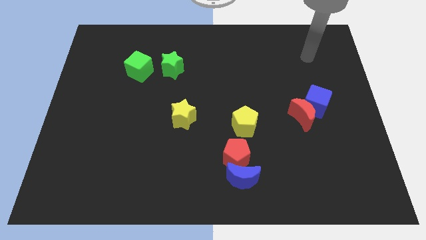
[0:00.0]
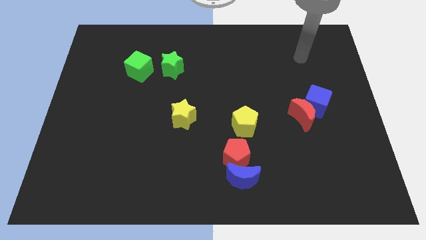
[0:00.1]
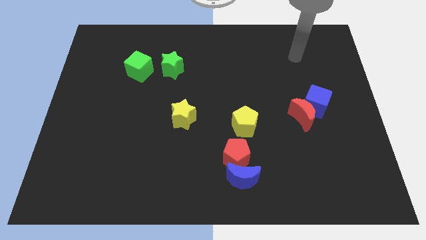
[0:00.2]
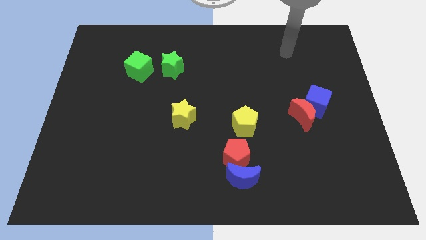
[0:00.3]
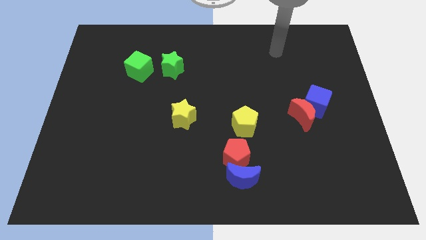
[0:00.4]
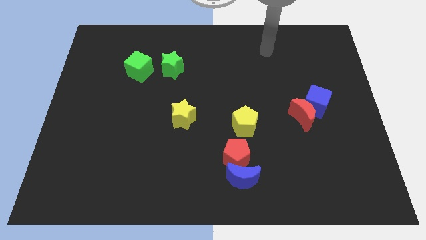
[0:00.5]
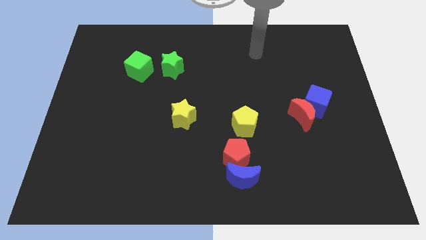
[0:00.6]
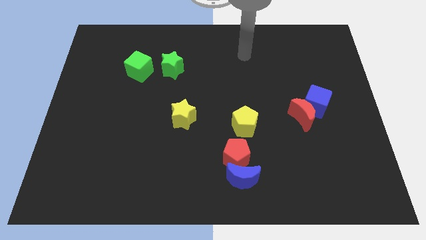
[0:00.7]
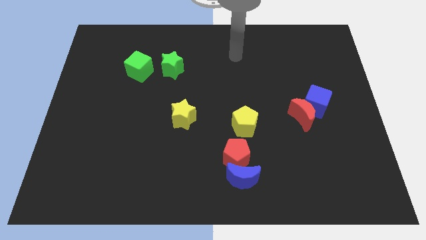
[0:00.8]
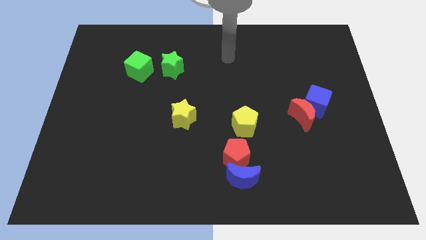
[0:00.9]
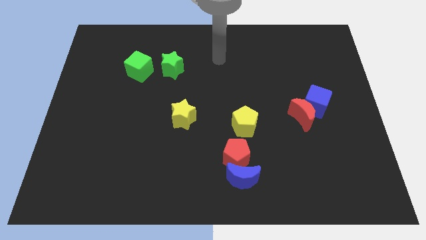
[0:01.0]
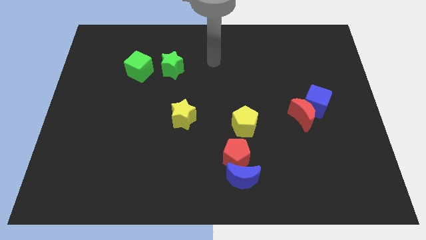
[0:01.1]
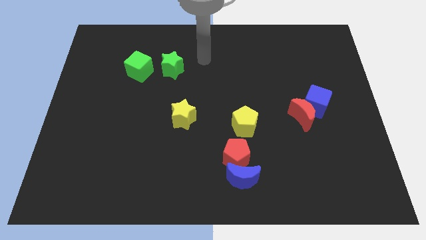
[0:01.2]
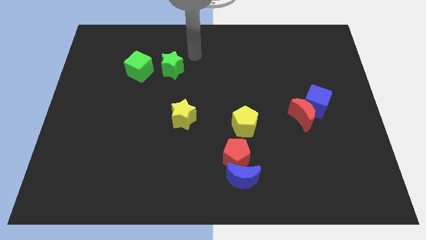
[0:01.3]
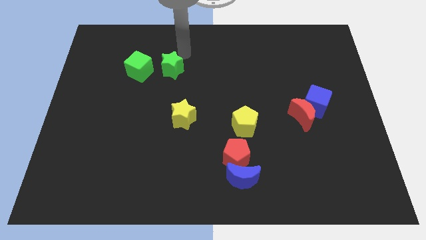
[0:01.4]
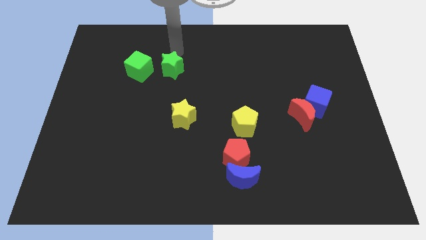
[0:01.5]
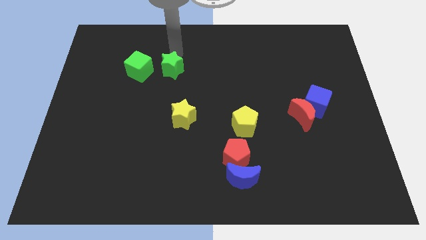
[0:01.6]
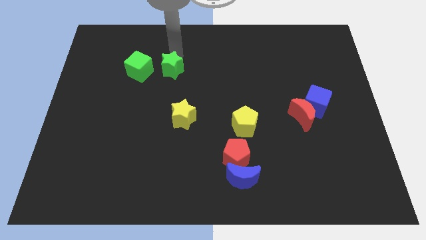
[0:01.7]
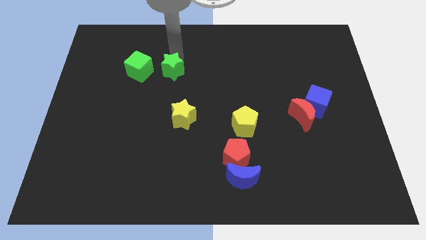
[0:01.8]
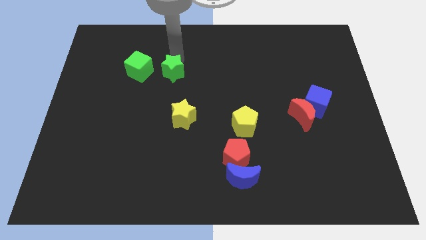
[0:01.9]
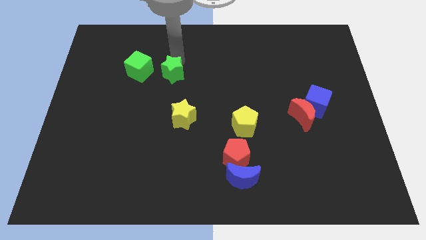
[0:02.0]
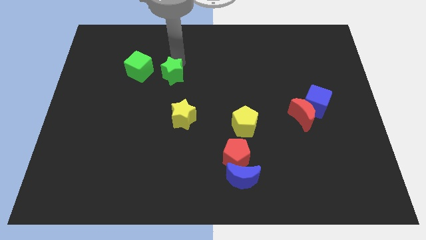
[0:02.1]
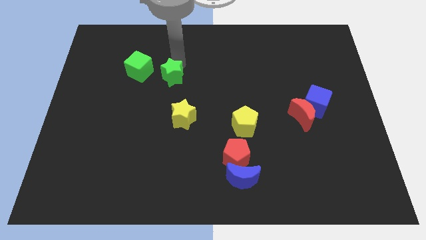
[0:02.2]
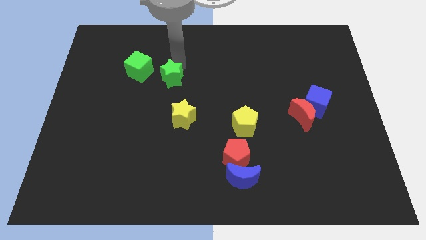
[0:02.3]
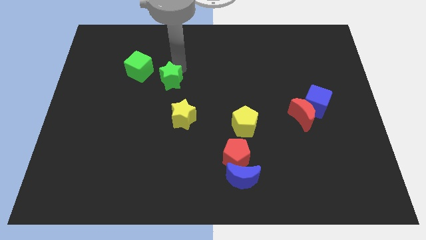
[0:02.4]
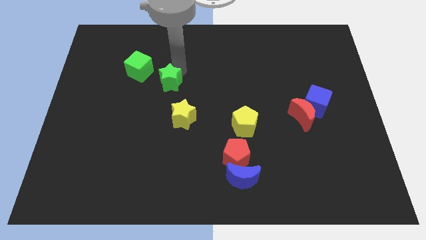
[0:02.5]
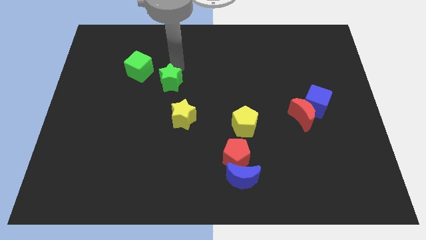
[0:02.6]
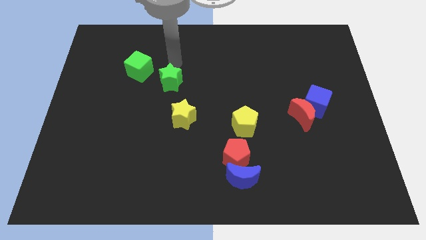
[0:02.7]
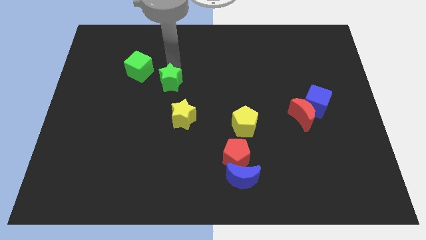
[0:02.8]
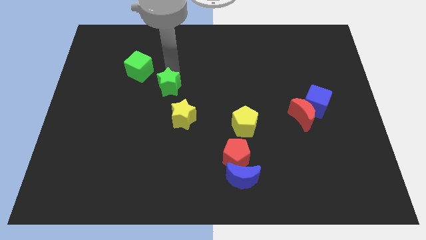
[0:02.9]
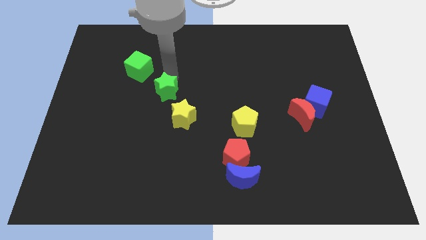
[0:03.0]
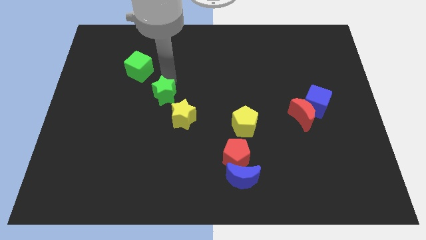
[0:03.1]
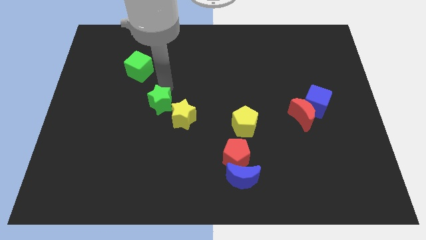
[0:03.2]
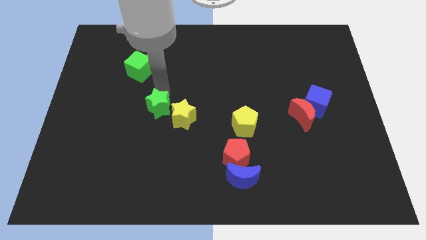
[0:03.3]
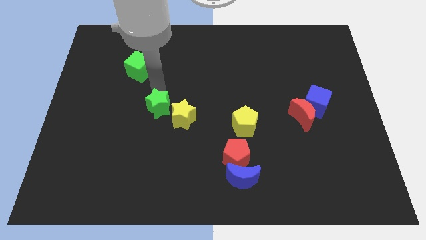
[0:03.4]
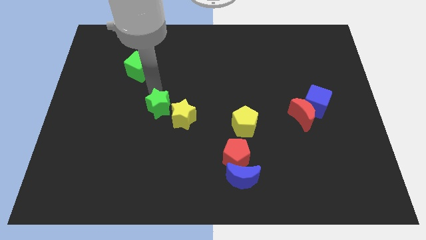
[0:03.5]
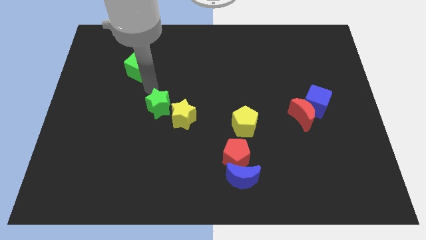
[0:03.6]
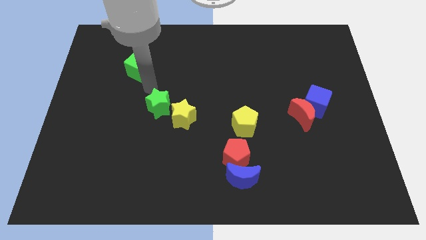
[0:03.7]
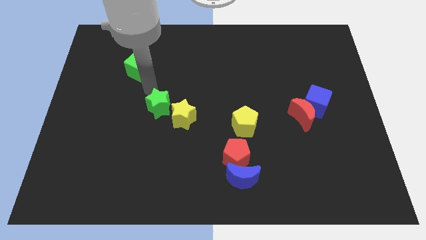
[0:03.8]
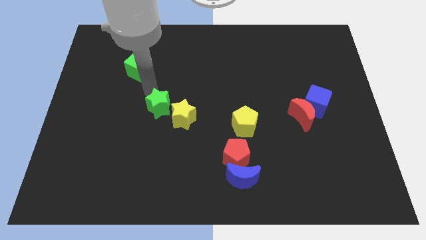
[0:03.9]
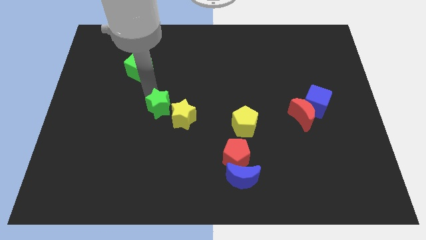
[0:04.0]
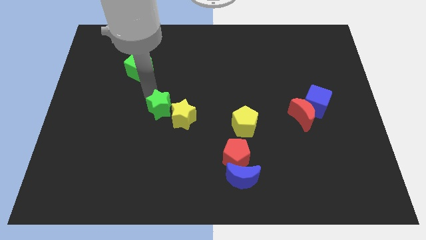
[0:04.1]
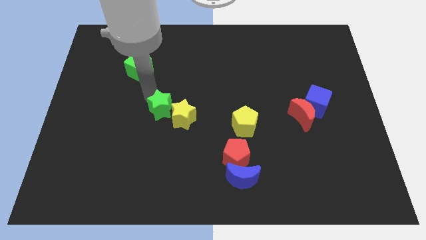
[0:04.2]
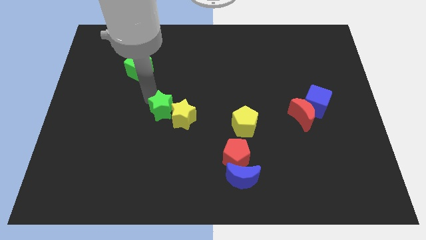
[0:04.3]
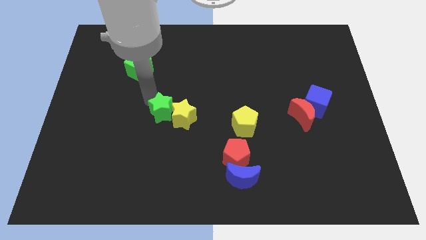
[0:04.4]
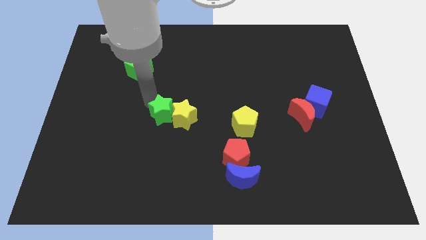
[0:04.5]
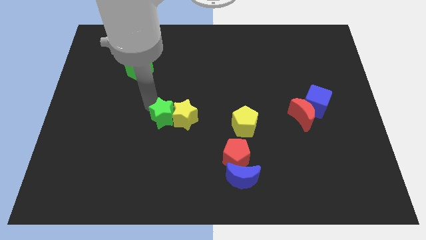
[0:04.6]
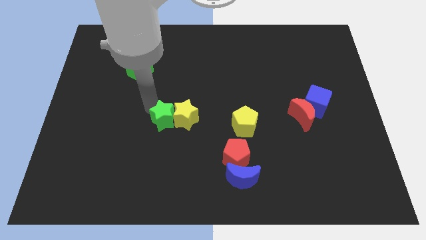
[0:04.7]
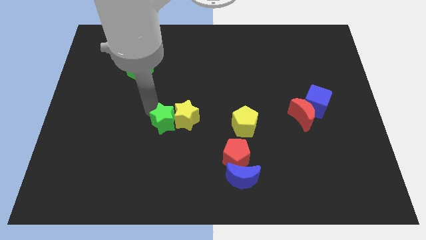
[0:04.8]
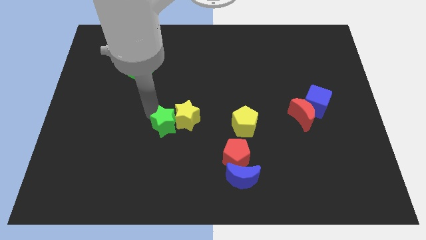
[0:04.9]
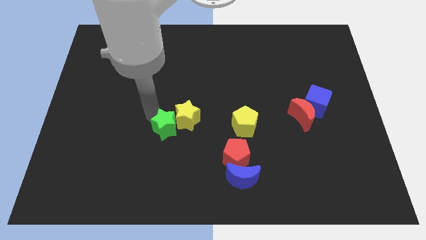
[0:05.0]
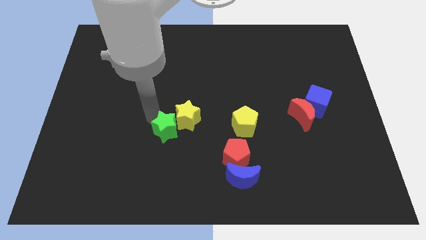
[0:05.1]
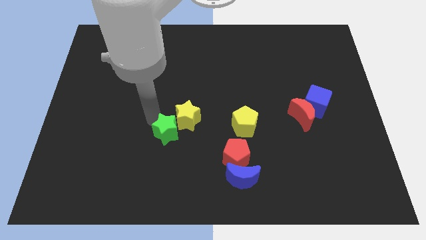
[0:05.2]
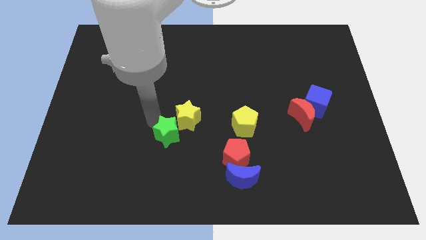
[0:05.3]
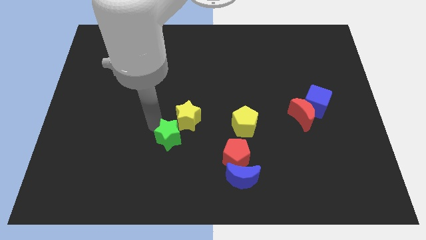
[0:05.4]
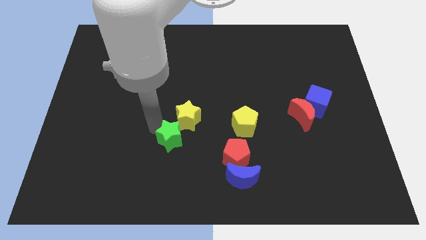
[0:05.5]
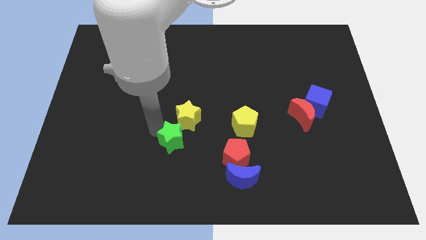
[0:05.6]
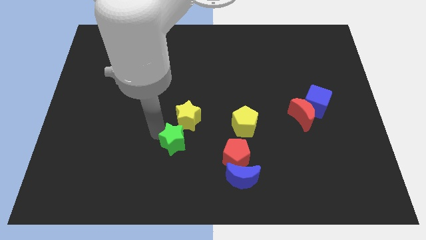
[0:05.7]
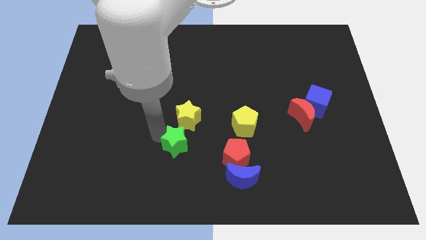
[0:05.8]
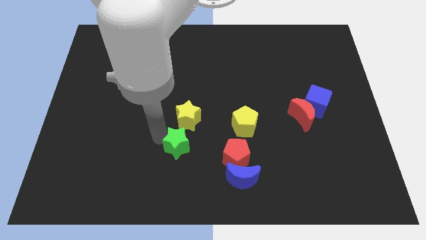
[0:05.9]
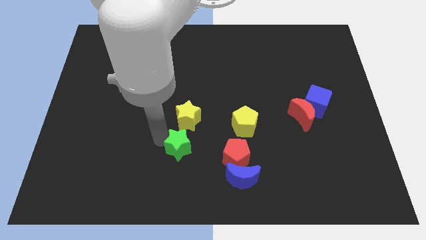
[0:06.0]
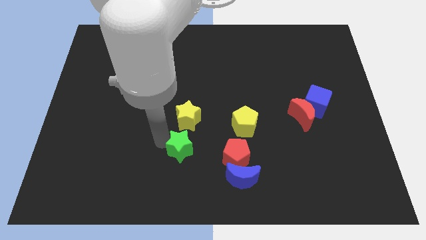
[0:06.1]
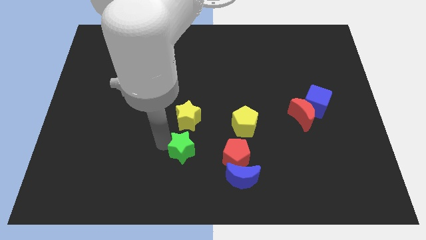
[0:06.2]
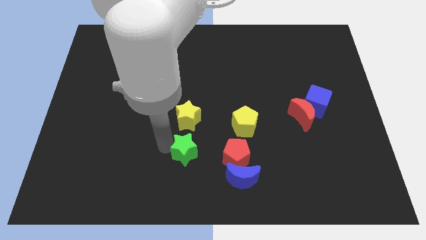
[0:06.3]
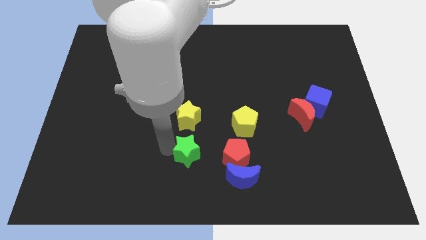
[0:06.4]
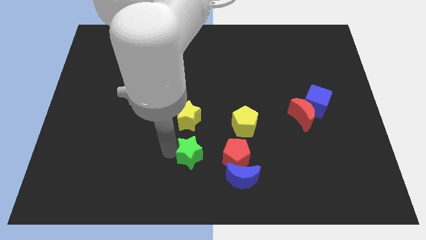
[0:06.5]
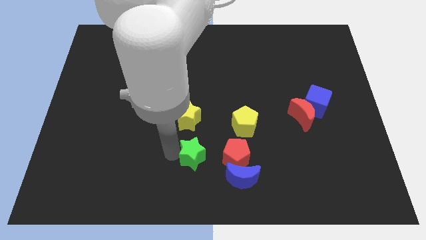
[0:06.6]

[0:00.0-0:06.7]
put the green star to the bottom side
